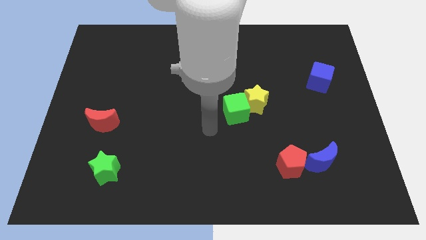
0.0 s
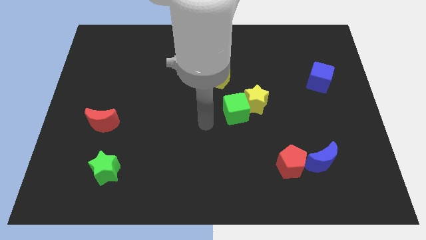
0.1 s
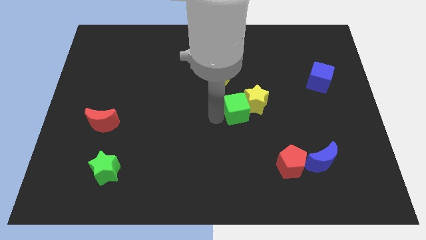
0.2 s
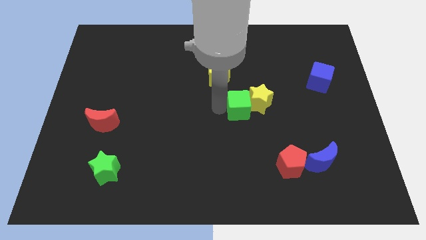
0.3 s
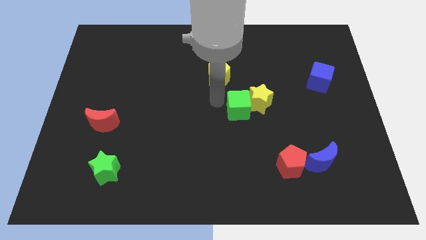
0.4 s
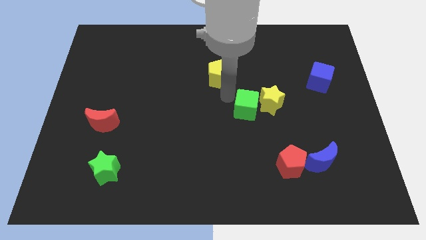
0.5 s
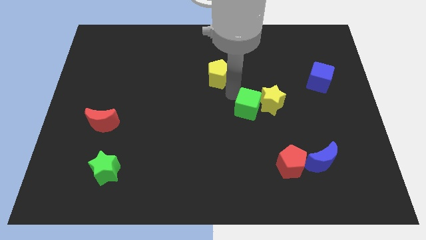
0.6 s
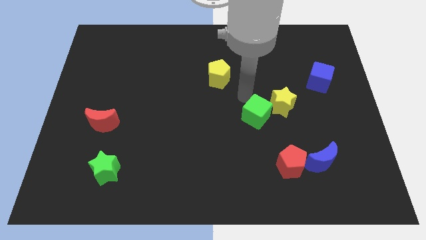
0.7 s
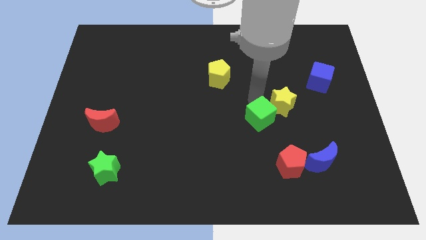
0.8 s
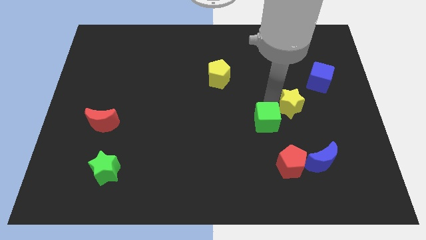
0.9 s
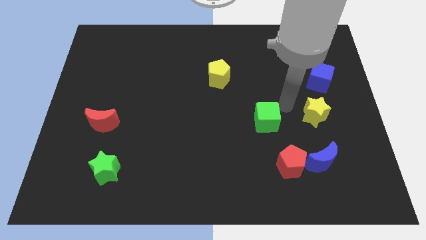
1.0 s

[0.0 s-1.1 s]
separate the green cube from the yellow star

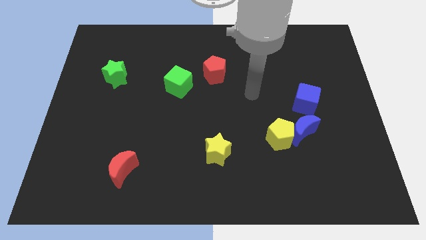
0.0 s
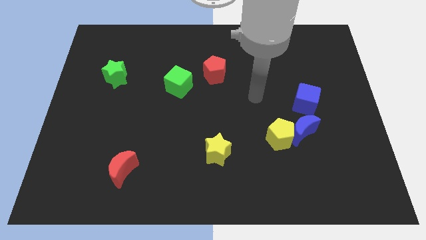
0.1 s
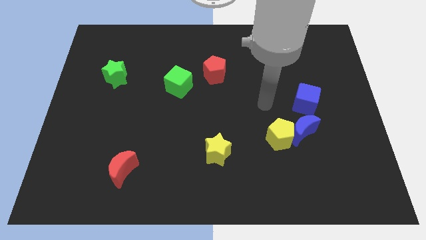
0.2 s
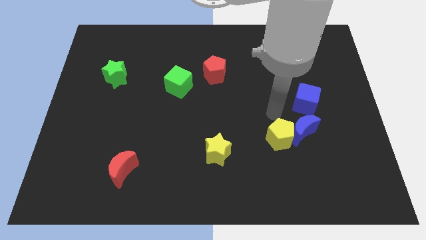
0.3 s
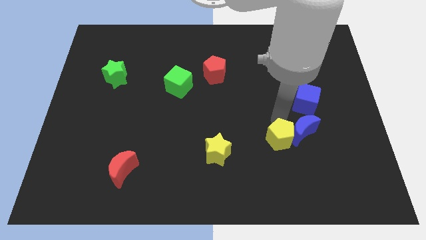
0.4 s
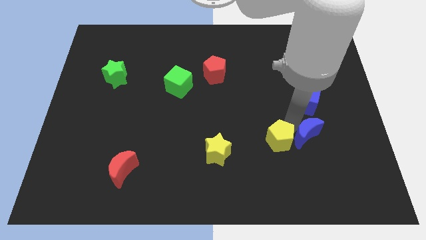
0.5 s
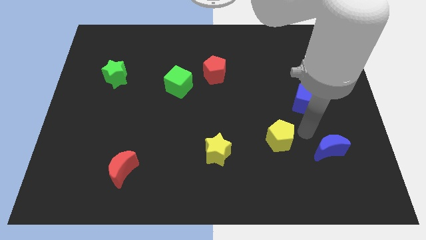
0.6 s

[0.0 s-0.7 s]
move the yellow pentagon away from the blue moon

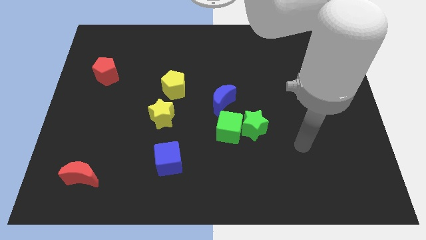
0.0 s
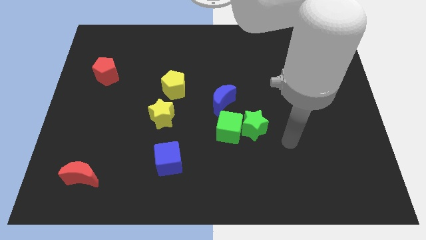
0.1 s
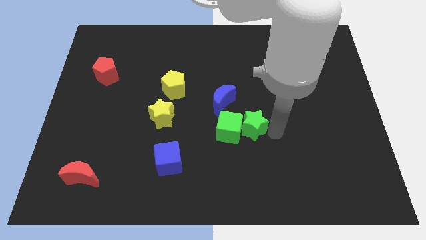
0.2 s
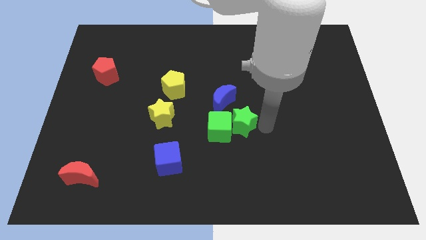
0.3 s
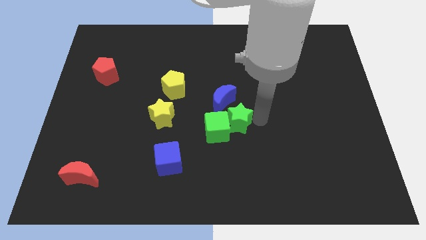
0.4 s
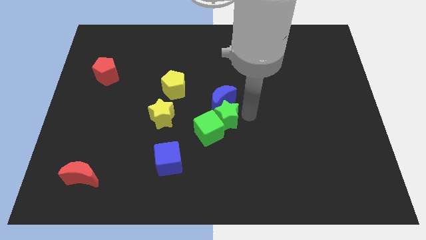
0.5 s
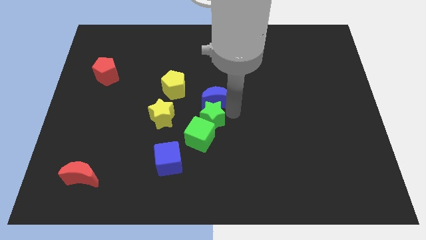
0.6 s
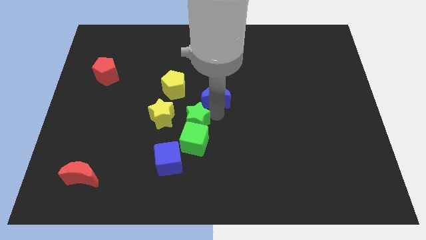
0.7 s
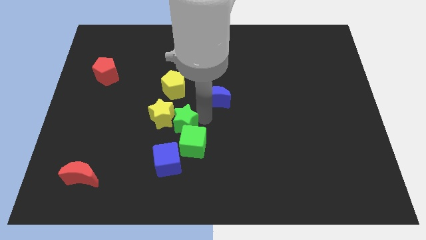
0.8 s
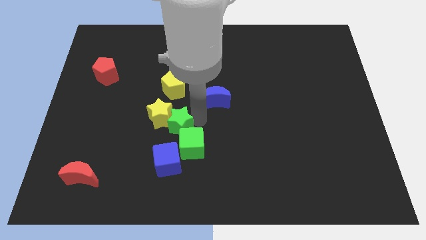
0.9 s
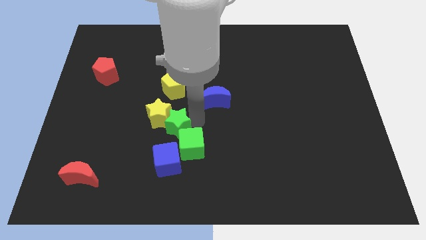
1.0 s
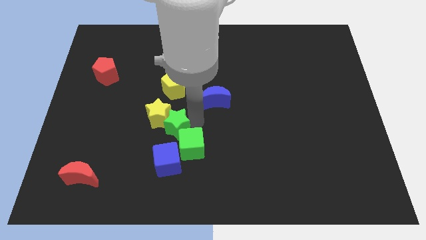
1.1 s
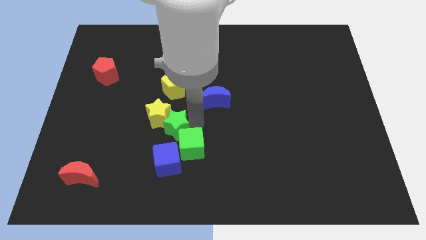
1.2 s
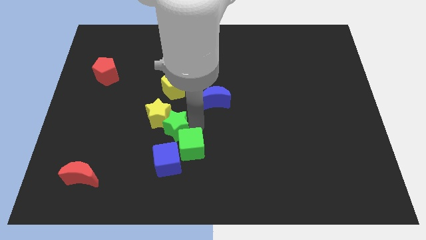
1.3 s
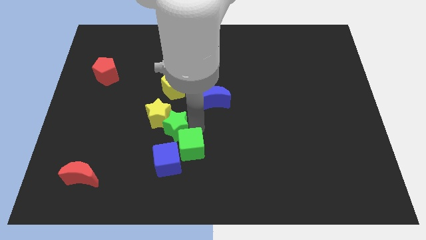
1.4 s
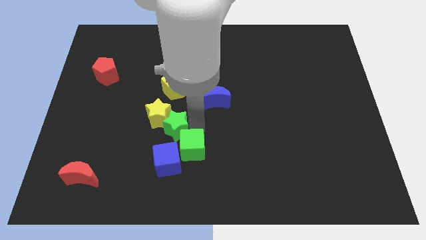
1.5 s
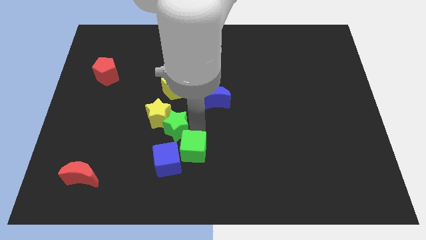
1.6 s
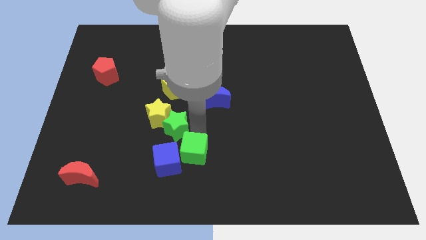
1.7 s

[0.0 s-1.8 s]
move the green cube away from the green star and blue moon

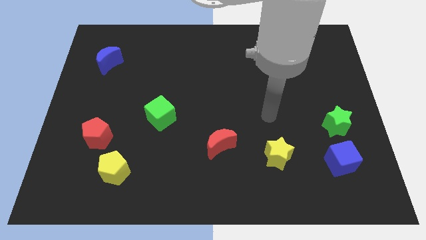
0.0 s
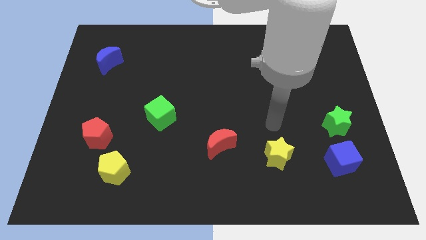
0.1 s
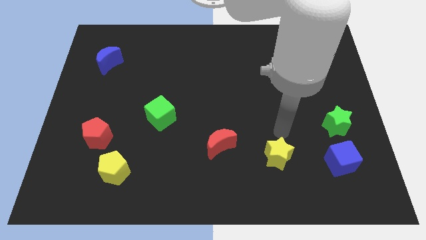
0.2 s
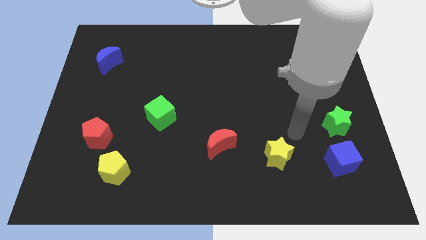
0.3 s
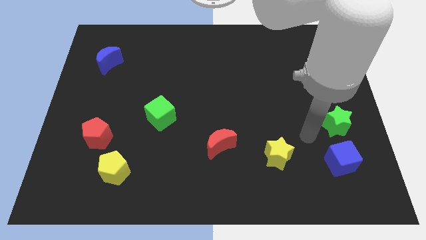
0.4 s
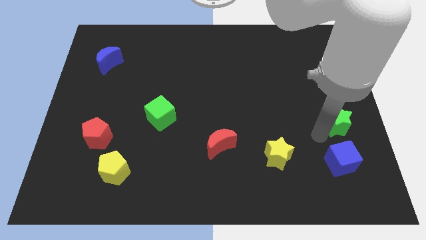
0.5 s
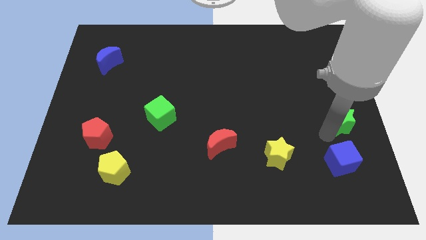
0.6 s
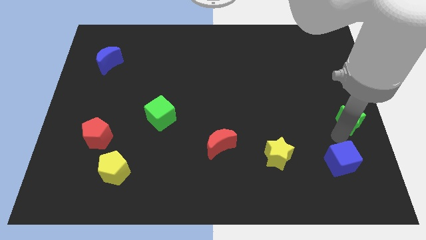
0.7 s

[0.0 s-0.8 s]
pull the blue cube apart from the green star

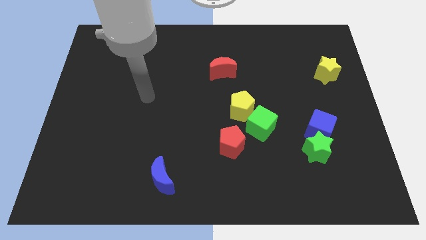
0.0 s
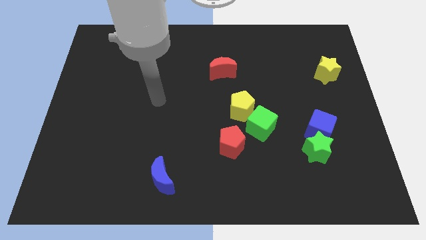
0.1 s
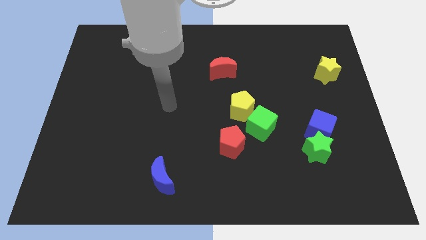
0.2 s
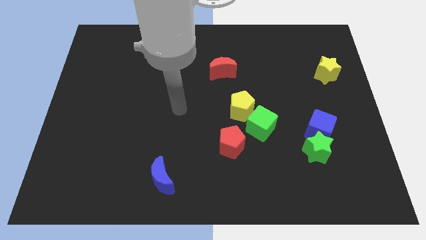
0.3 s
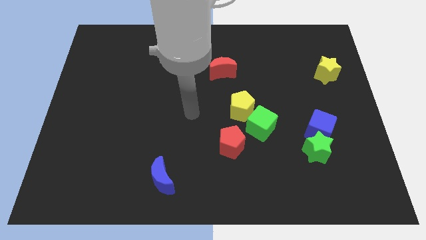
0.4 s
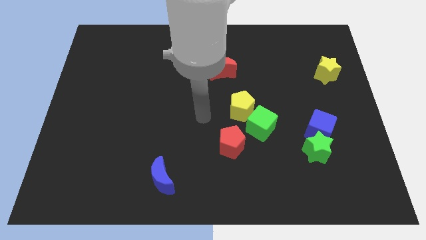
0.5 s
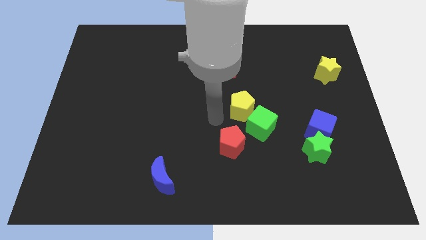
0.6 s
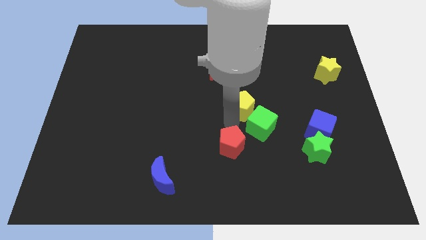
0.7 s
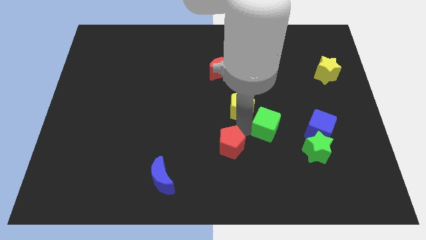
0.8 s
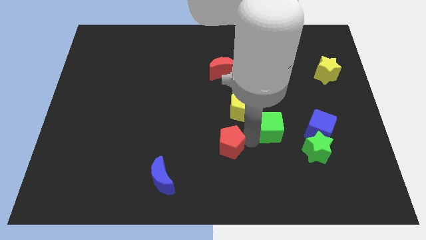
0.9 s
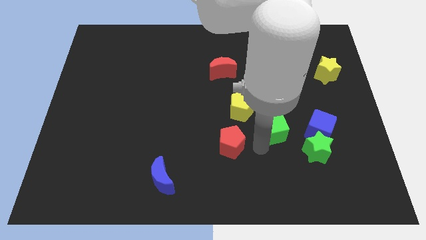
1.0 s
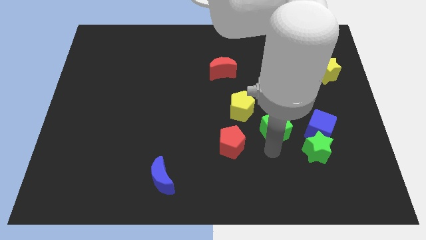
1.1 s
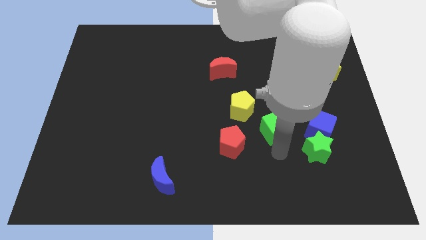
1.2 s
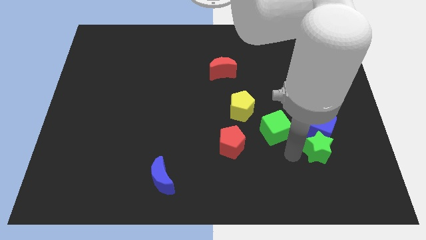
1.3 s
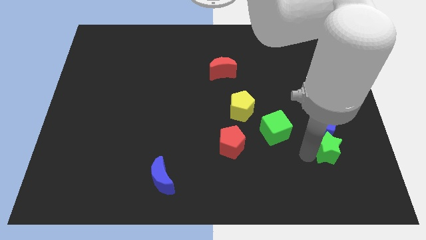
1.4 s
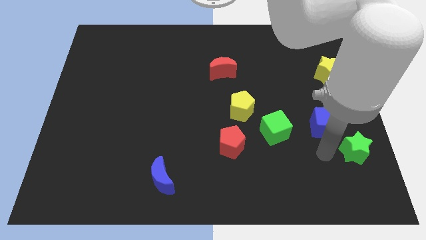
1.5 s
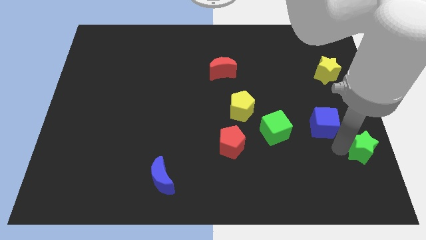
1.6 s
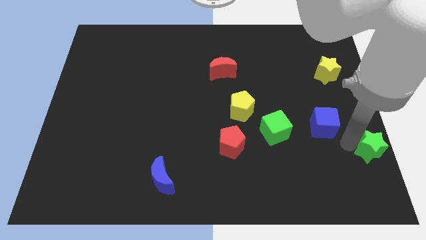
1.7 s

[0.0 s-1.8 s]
move the blue cube away from the green star

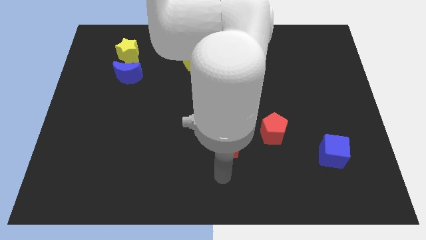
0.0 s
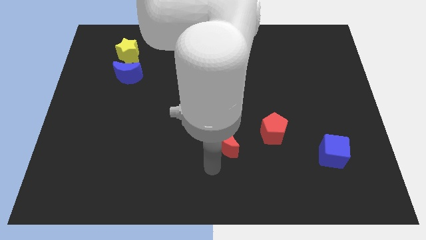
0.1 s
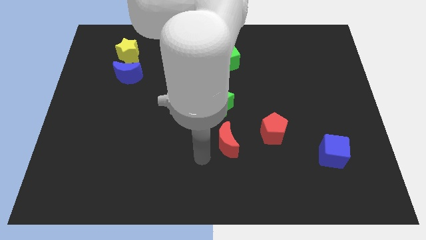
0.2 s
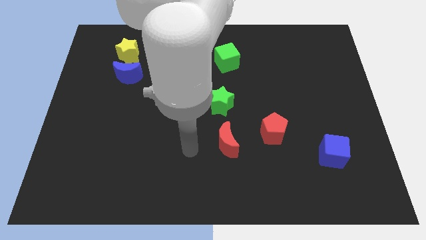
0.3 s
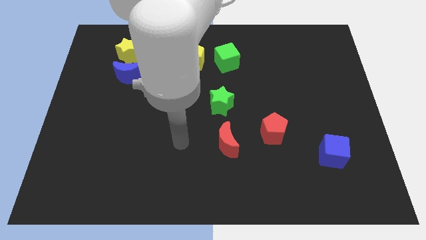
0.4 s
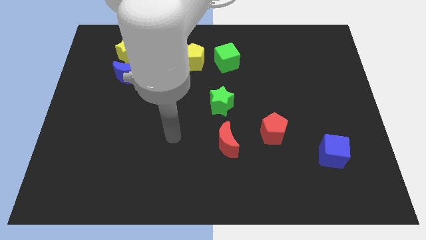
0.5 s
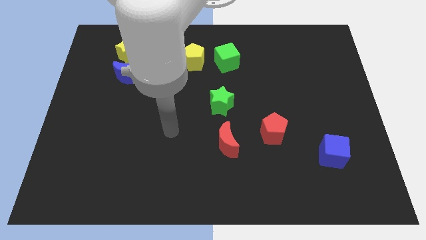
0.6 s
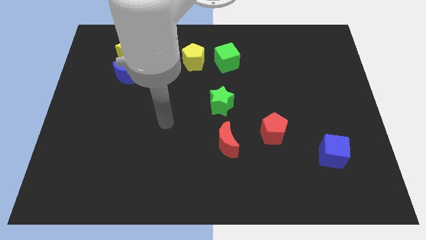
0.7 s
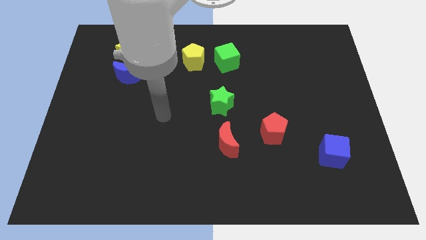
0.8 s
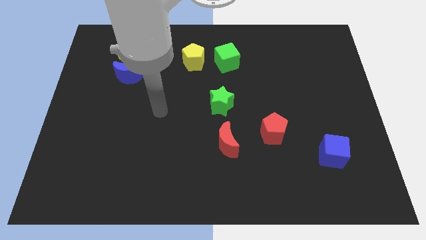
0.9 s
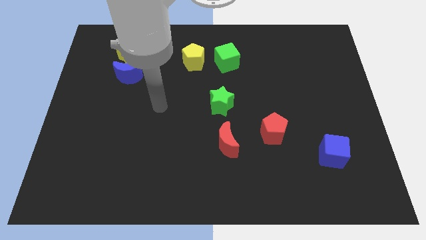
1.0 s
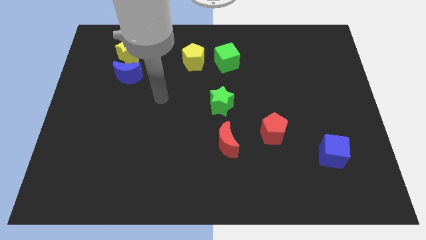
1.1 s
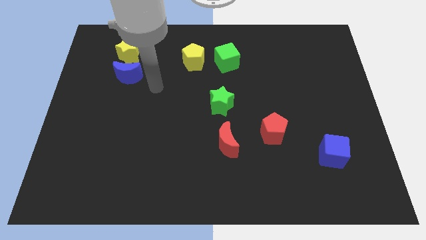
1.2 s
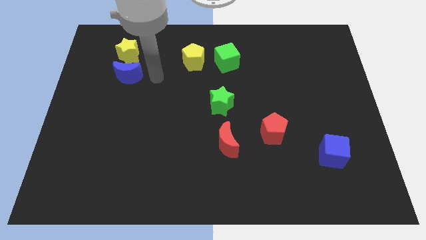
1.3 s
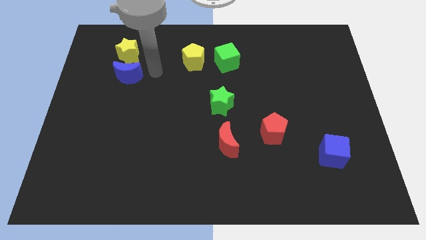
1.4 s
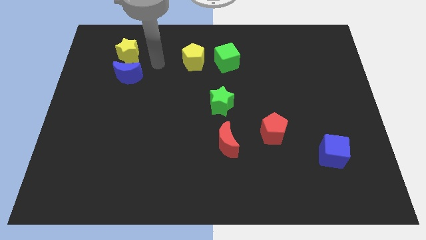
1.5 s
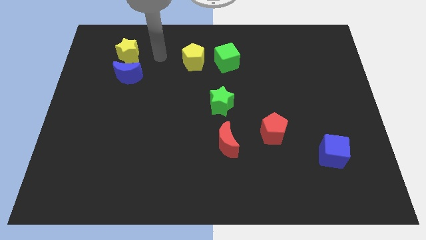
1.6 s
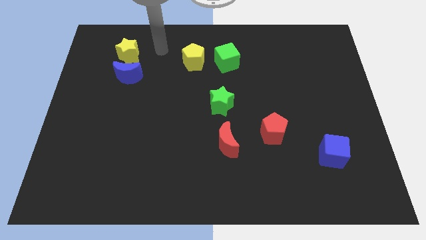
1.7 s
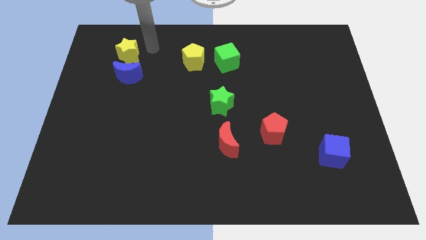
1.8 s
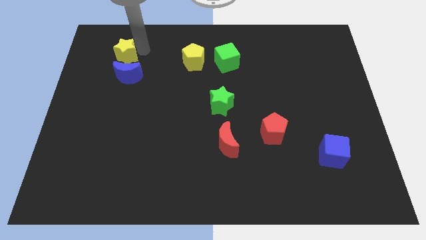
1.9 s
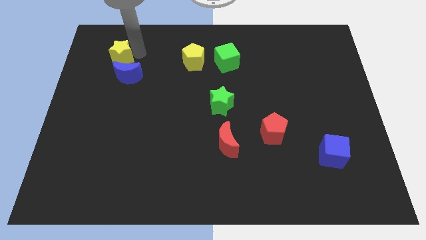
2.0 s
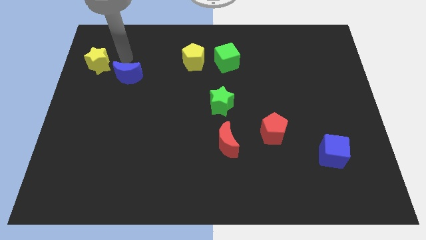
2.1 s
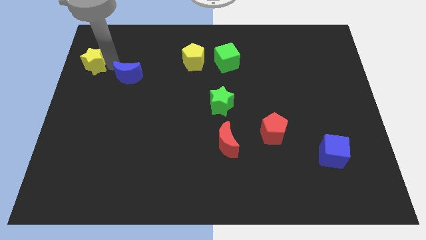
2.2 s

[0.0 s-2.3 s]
separate the blue moon from the yellow star

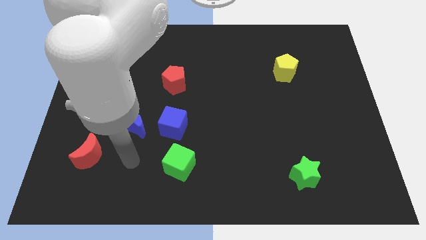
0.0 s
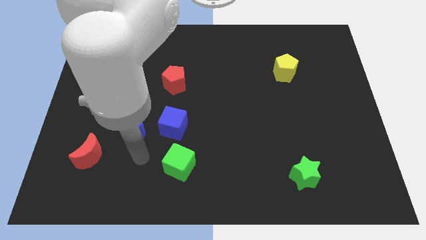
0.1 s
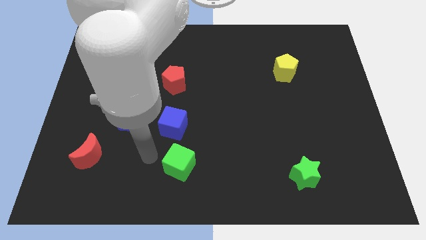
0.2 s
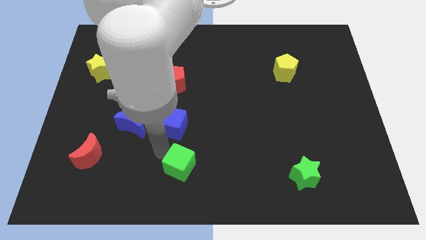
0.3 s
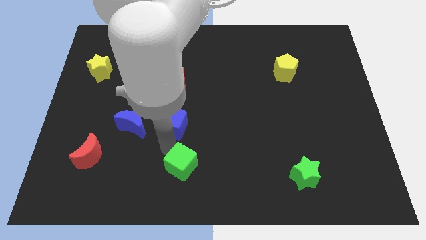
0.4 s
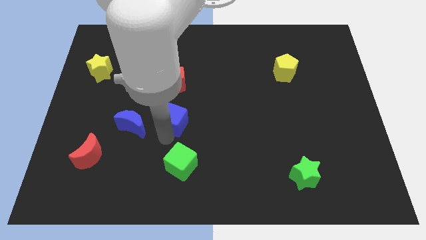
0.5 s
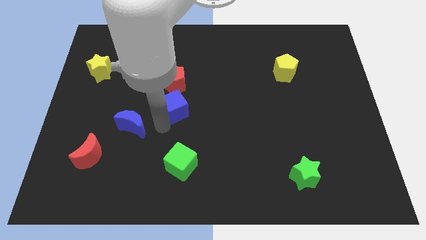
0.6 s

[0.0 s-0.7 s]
pull the blue moon apart from the blue cube
